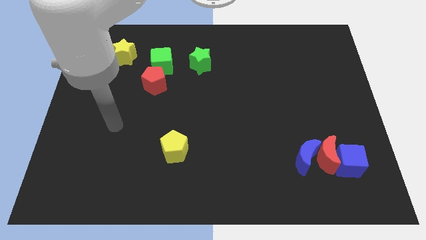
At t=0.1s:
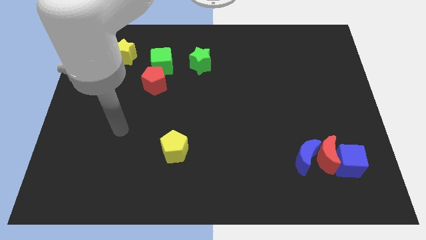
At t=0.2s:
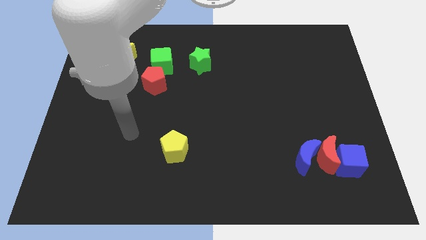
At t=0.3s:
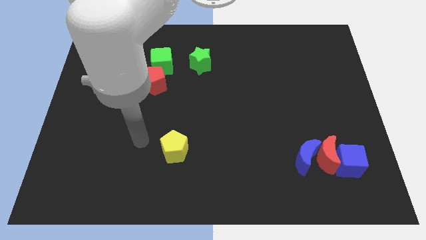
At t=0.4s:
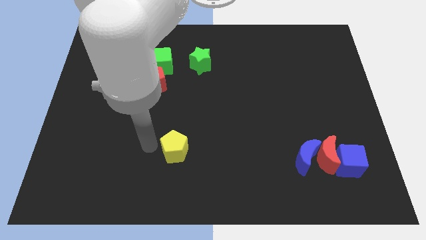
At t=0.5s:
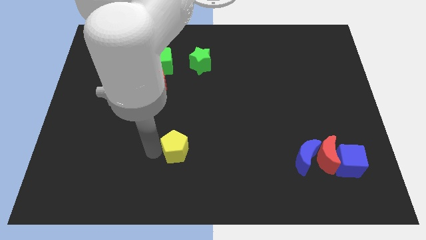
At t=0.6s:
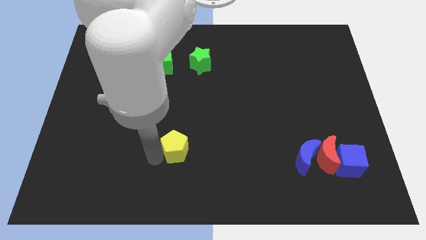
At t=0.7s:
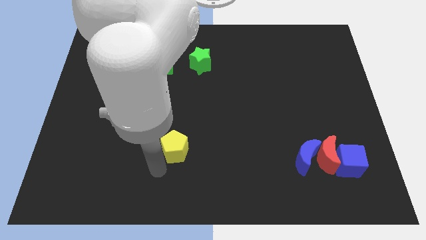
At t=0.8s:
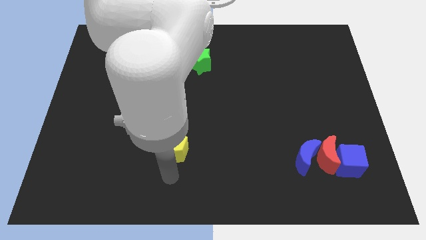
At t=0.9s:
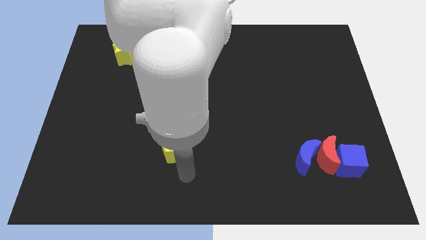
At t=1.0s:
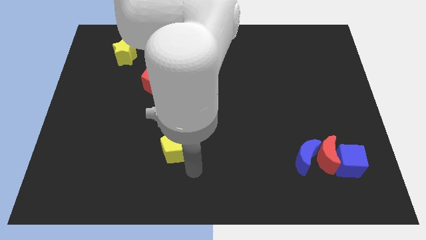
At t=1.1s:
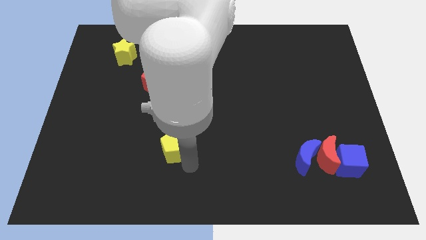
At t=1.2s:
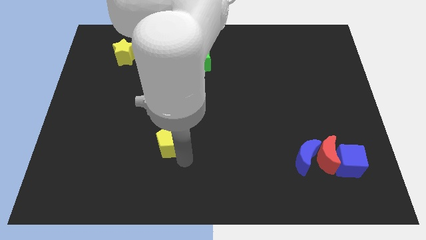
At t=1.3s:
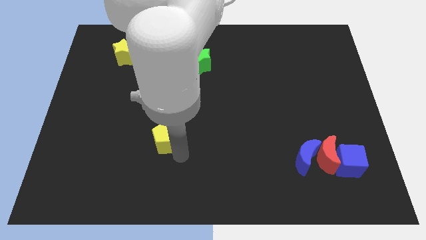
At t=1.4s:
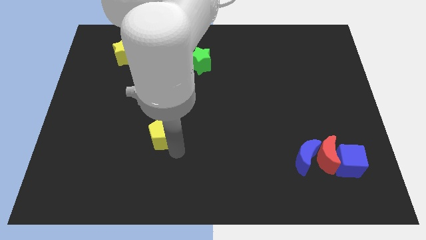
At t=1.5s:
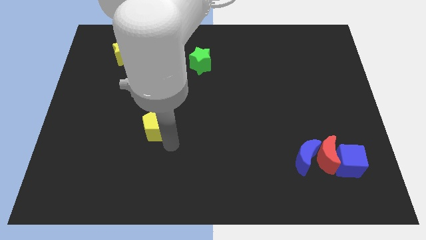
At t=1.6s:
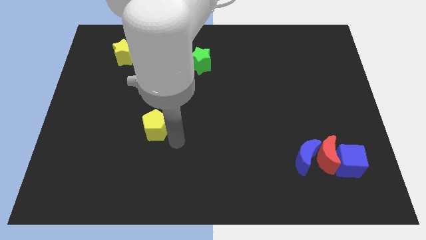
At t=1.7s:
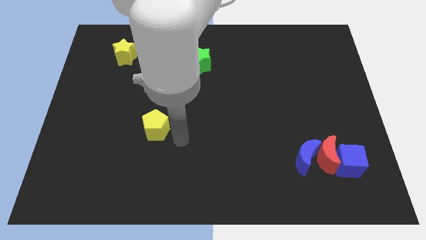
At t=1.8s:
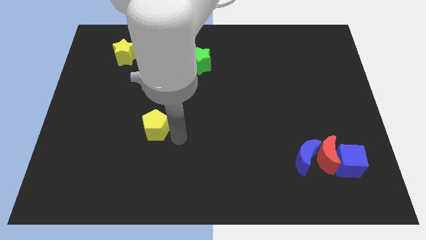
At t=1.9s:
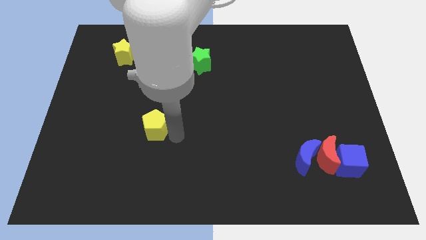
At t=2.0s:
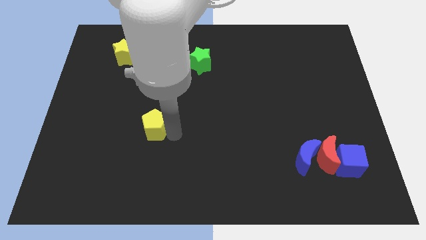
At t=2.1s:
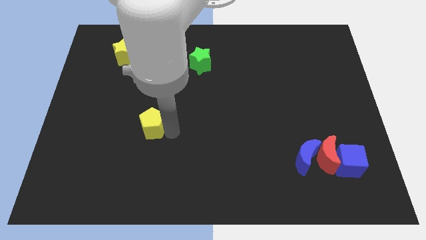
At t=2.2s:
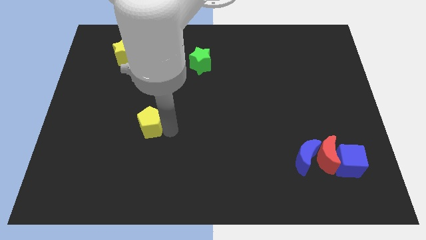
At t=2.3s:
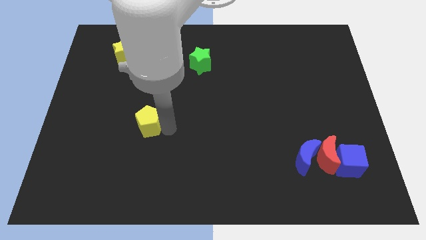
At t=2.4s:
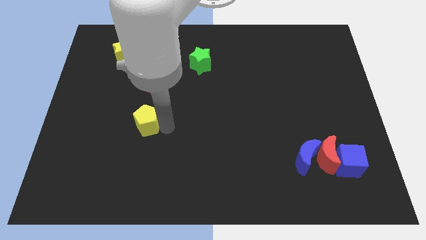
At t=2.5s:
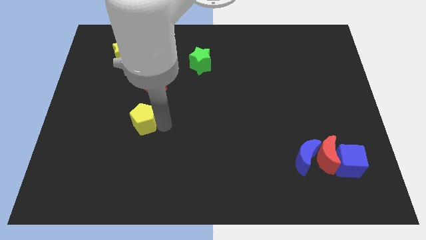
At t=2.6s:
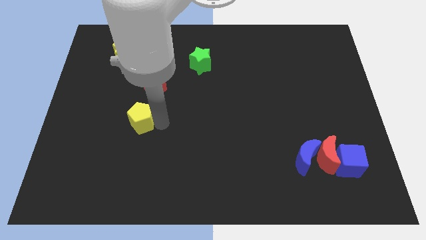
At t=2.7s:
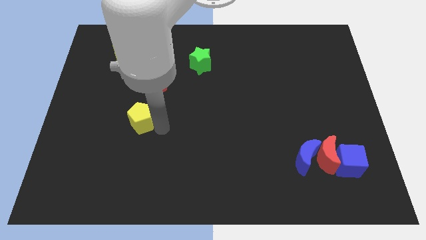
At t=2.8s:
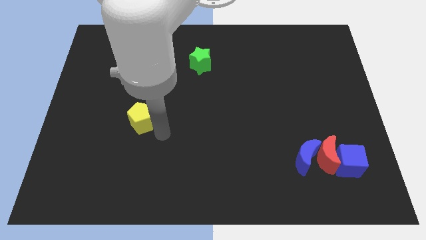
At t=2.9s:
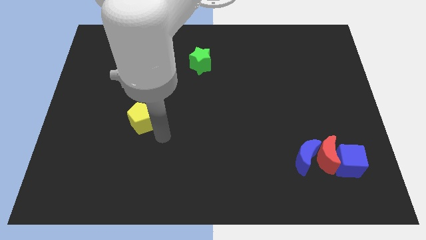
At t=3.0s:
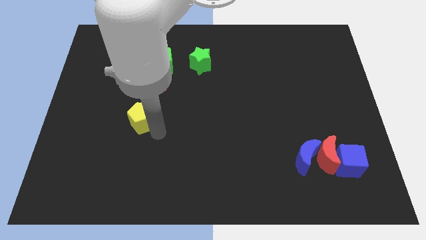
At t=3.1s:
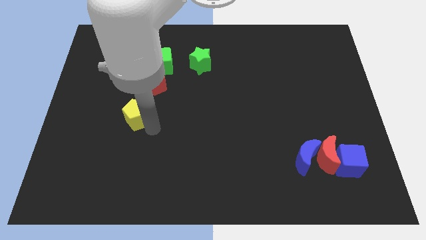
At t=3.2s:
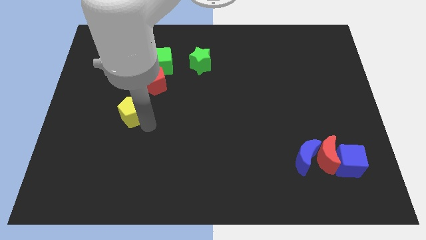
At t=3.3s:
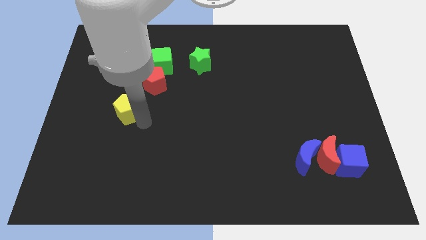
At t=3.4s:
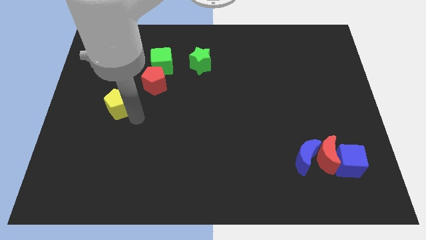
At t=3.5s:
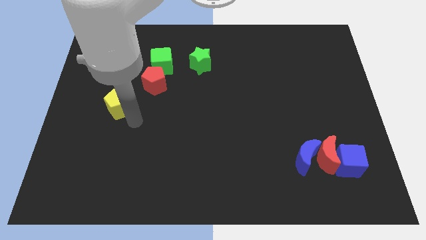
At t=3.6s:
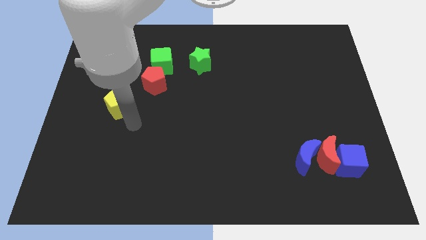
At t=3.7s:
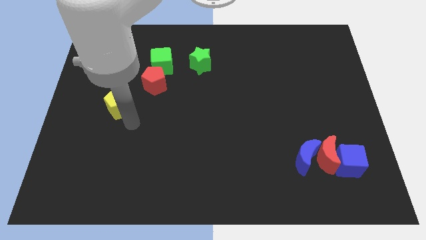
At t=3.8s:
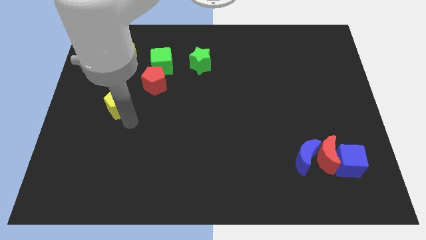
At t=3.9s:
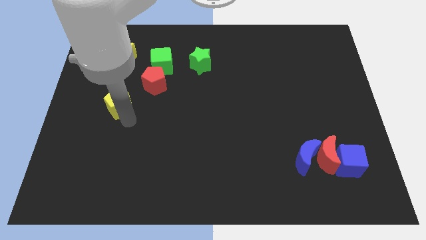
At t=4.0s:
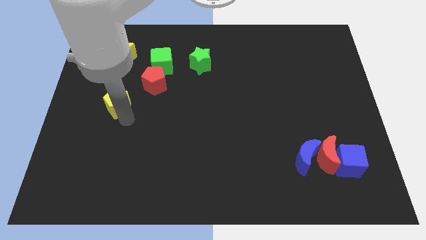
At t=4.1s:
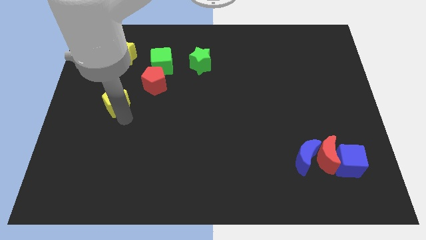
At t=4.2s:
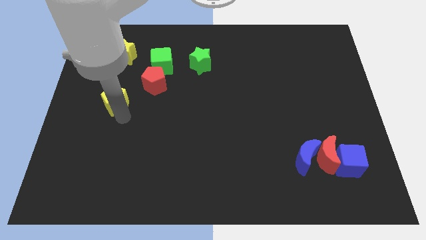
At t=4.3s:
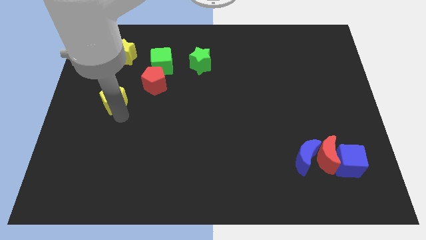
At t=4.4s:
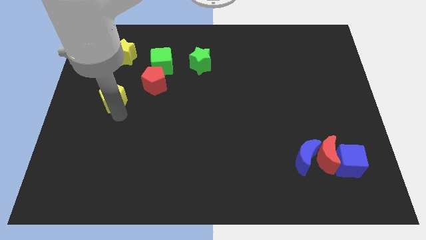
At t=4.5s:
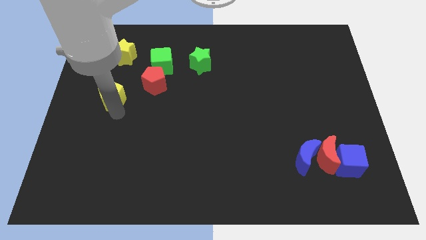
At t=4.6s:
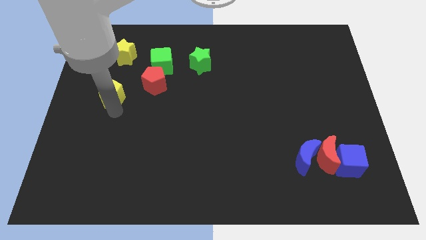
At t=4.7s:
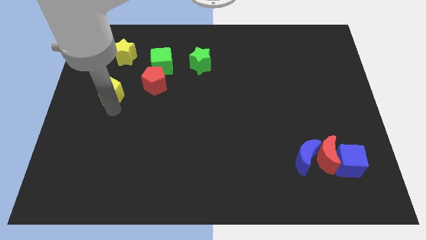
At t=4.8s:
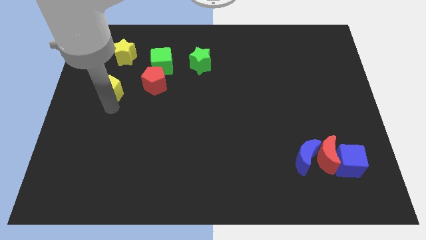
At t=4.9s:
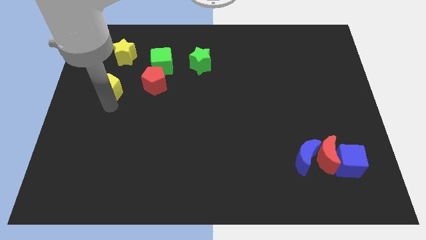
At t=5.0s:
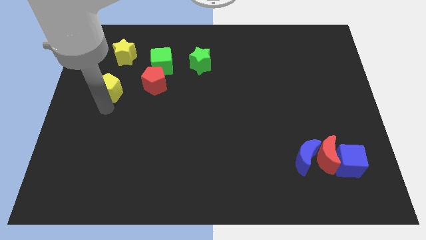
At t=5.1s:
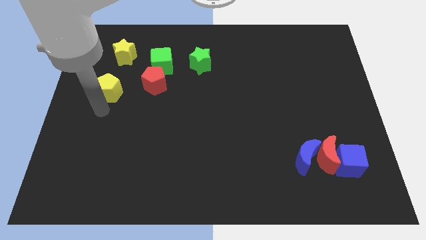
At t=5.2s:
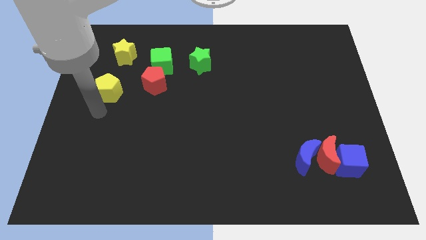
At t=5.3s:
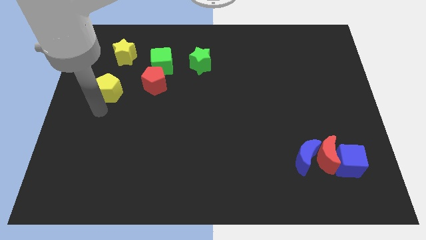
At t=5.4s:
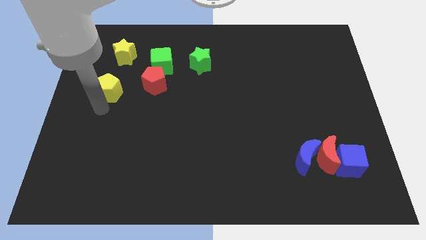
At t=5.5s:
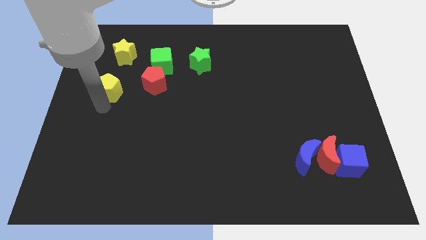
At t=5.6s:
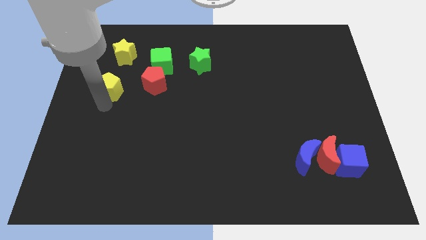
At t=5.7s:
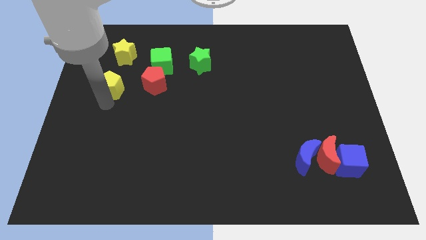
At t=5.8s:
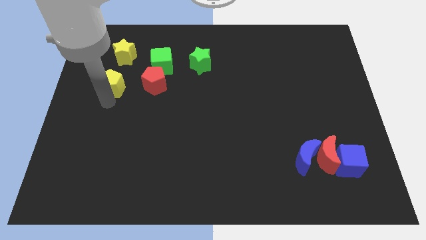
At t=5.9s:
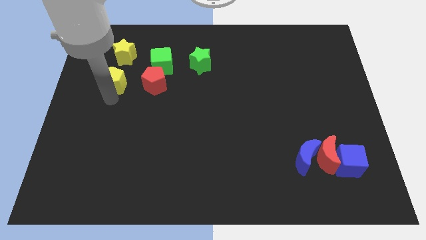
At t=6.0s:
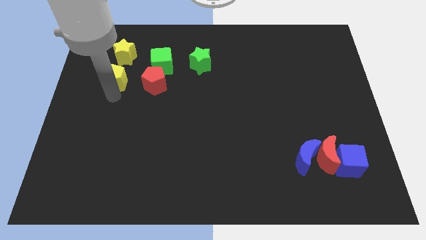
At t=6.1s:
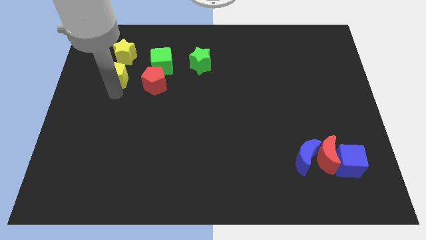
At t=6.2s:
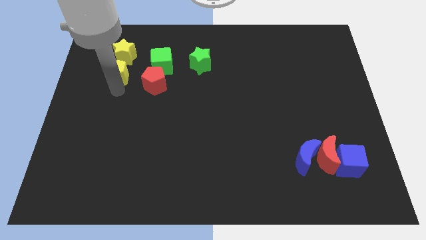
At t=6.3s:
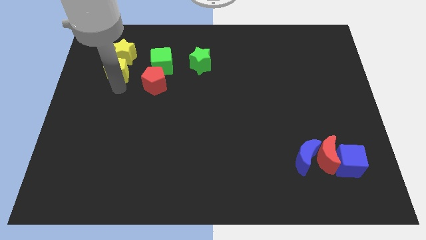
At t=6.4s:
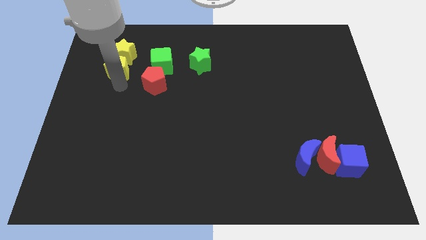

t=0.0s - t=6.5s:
move the yellow pentagon towards the yellow star
